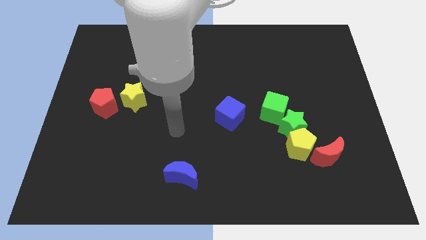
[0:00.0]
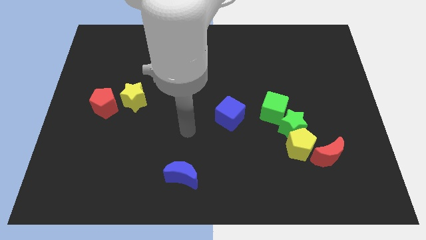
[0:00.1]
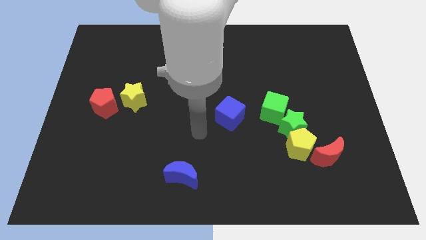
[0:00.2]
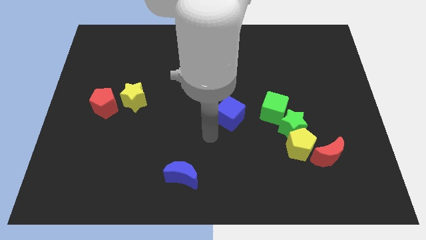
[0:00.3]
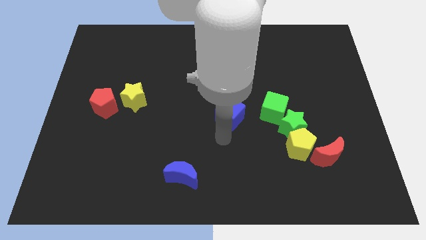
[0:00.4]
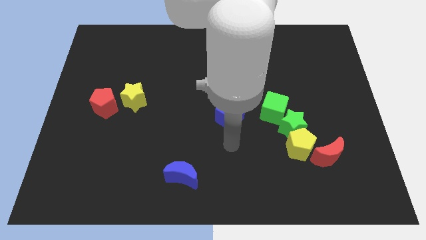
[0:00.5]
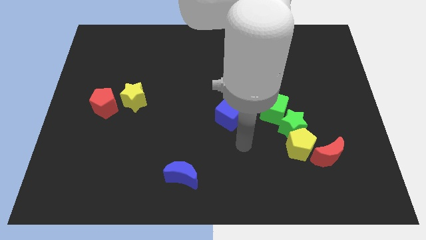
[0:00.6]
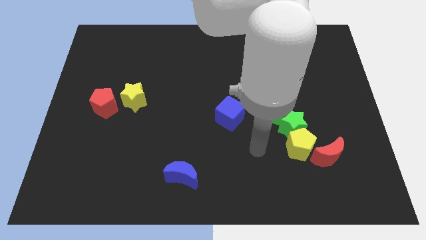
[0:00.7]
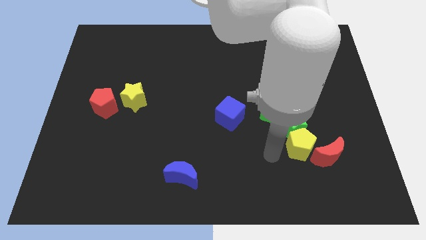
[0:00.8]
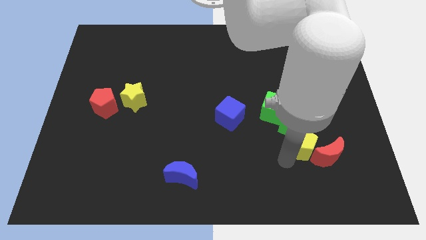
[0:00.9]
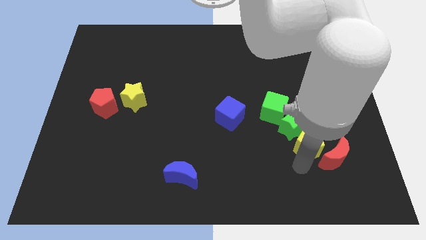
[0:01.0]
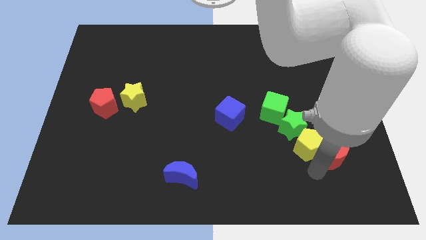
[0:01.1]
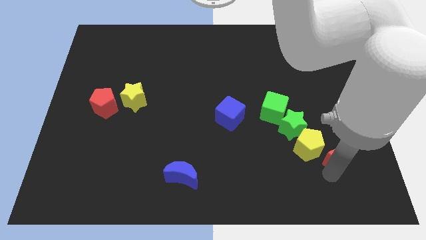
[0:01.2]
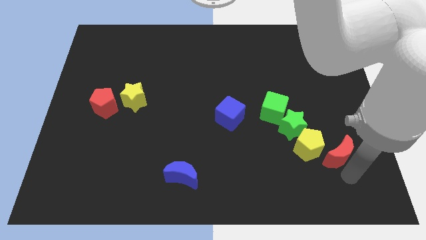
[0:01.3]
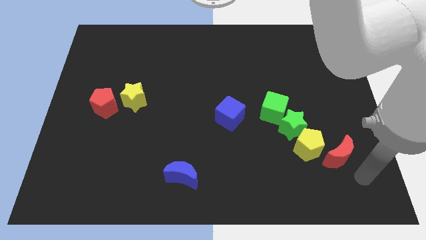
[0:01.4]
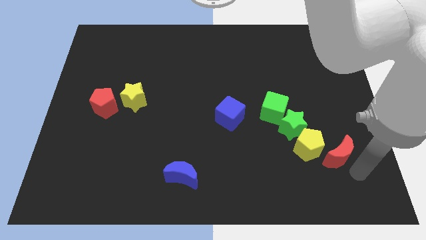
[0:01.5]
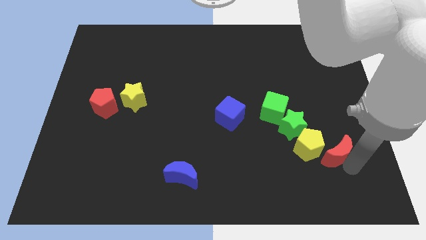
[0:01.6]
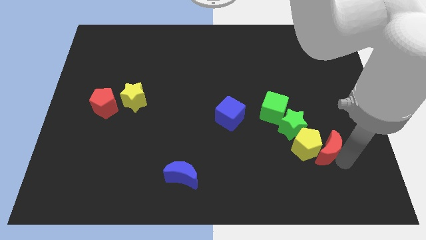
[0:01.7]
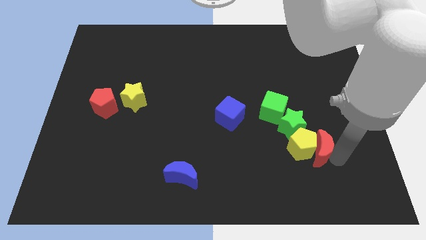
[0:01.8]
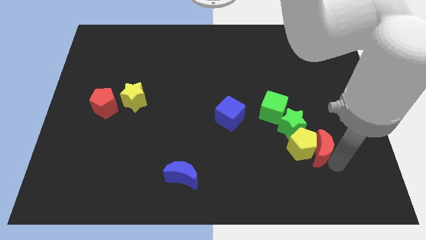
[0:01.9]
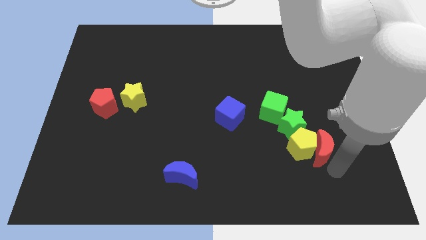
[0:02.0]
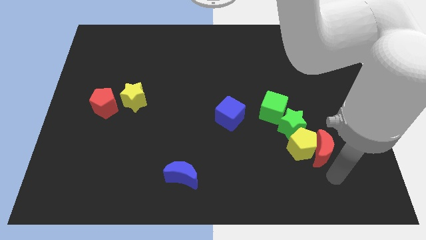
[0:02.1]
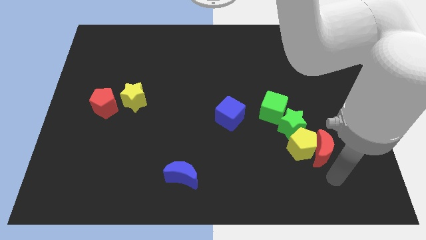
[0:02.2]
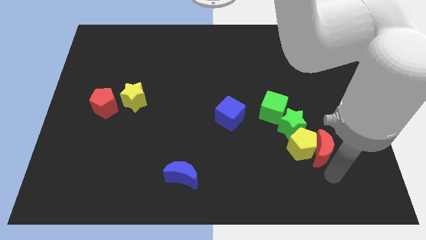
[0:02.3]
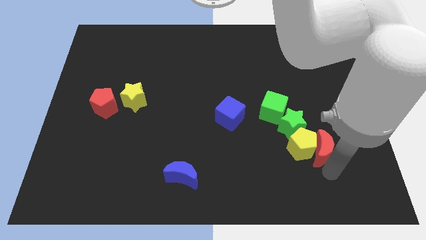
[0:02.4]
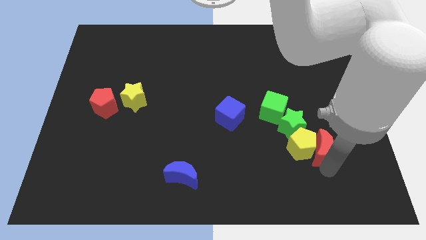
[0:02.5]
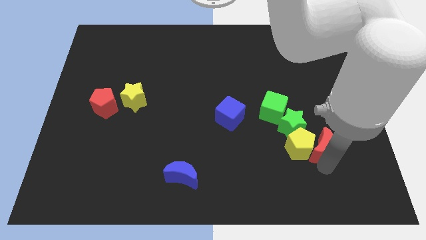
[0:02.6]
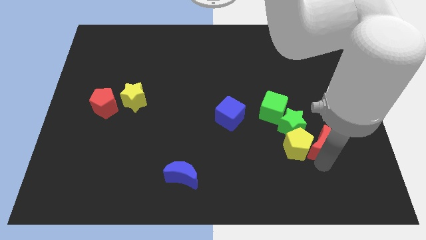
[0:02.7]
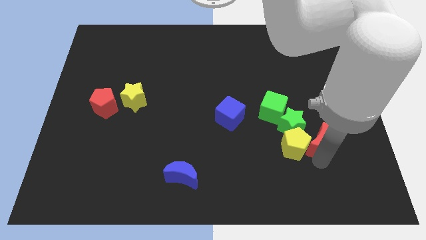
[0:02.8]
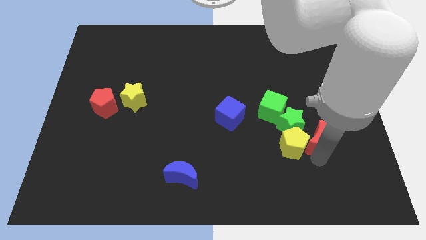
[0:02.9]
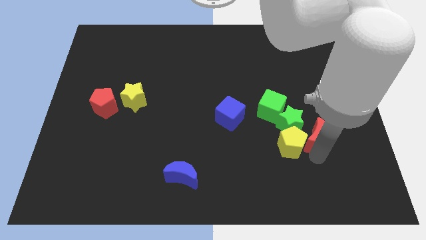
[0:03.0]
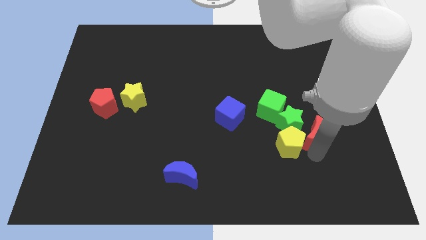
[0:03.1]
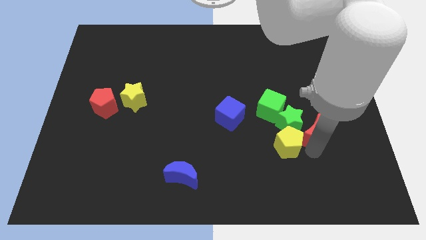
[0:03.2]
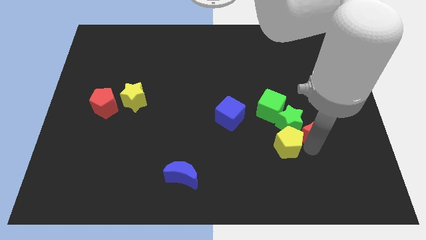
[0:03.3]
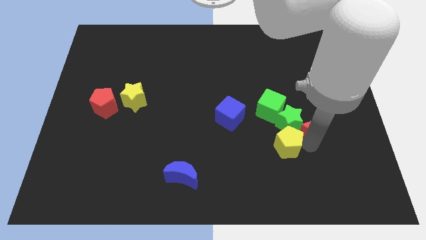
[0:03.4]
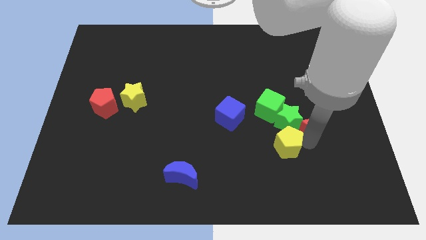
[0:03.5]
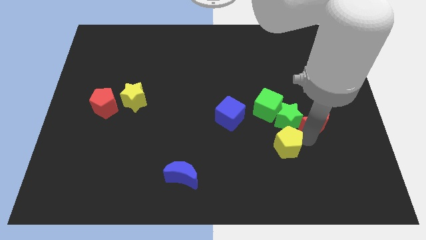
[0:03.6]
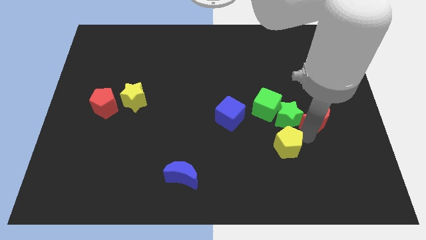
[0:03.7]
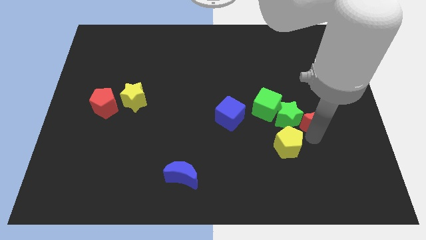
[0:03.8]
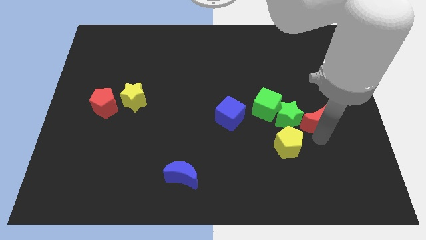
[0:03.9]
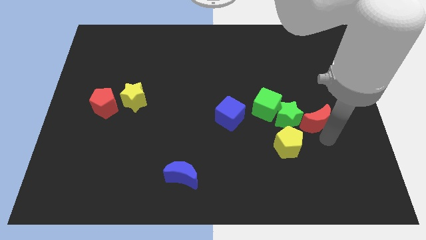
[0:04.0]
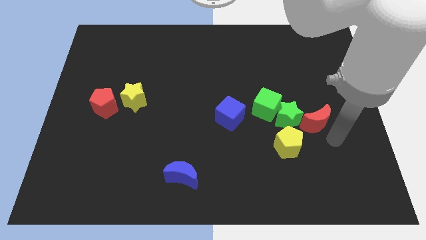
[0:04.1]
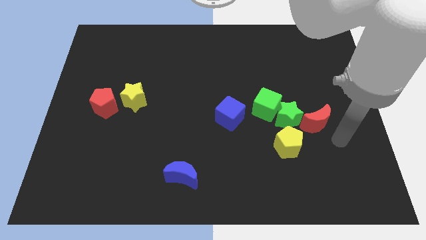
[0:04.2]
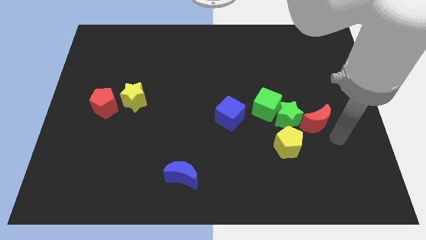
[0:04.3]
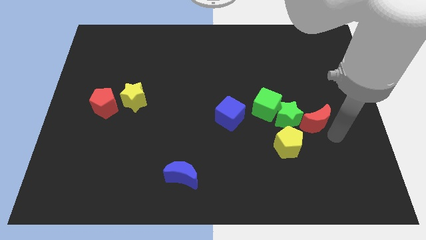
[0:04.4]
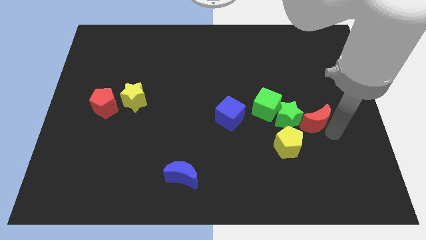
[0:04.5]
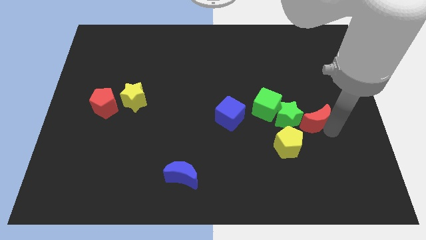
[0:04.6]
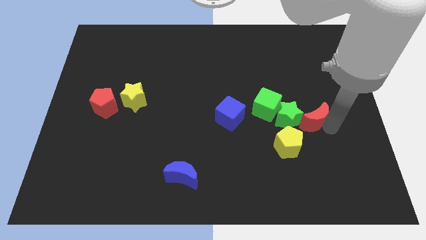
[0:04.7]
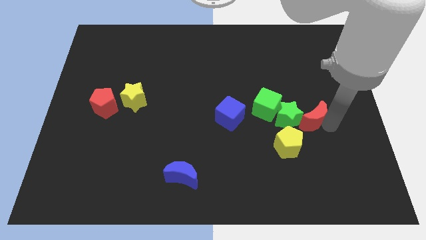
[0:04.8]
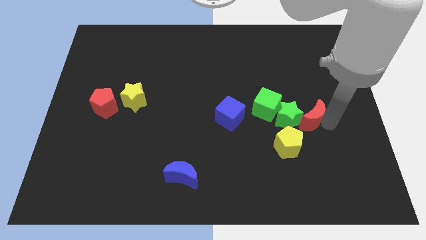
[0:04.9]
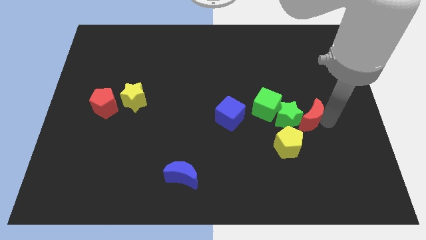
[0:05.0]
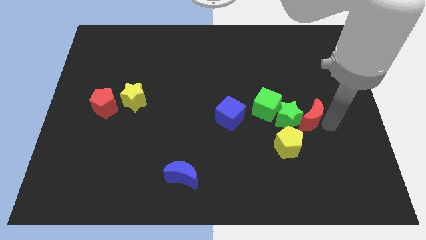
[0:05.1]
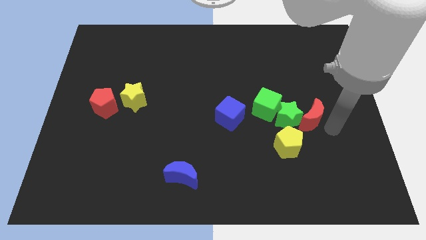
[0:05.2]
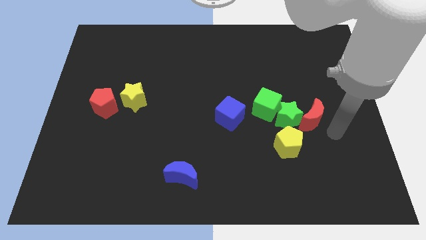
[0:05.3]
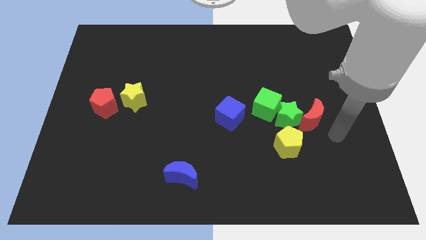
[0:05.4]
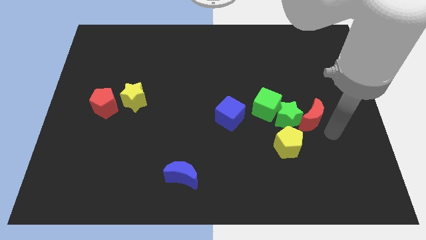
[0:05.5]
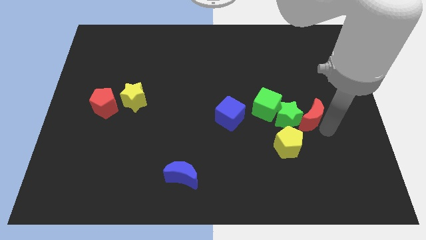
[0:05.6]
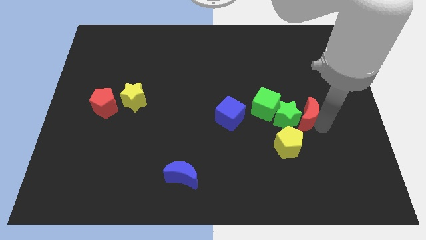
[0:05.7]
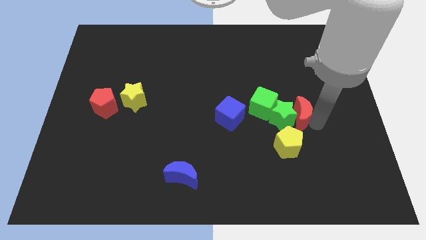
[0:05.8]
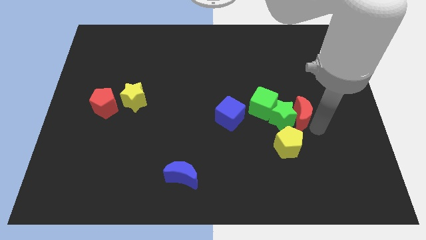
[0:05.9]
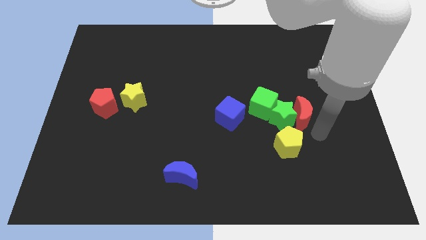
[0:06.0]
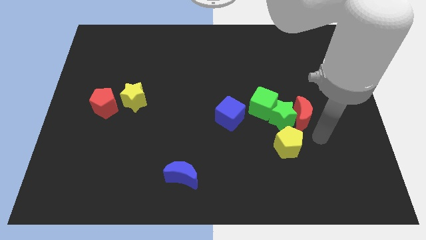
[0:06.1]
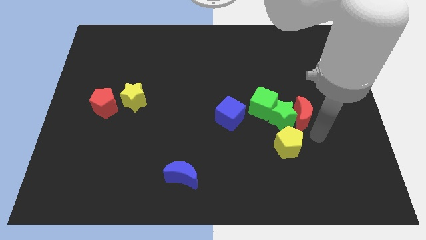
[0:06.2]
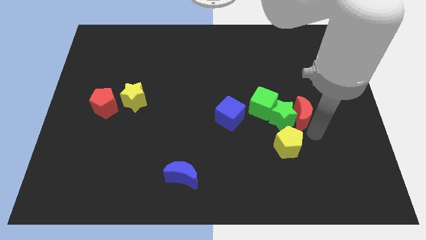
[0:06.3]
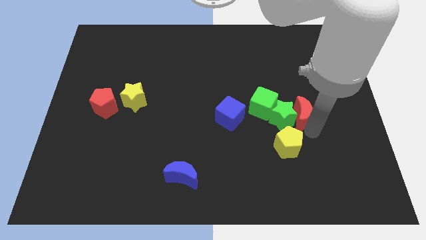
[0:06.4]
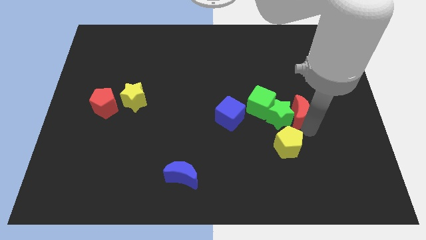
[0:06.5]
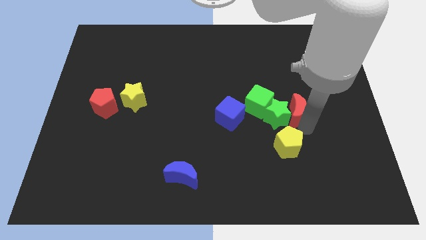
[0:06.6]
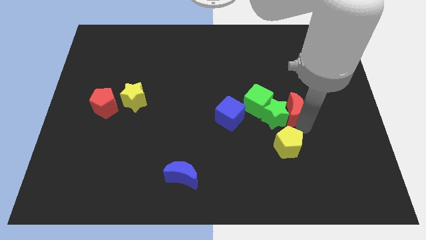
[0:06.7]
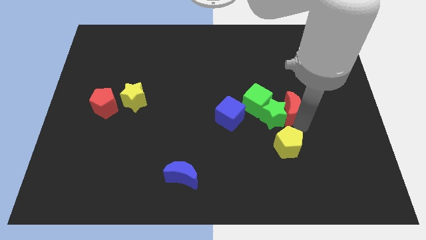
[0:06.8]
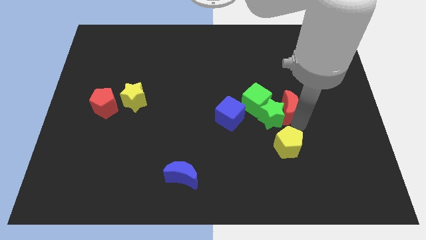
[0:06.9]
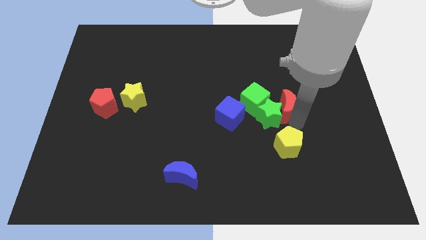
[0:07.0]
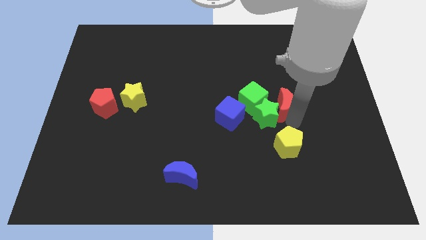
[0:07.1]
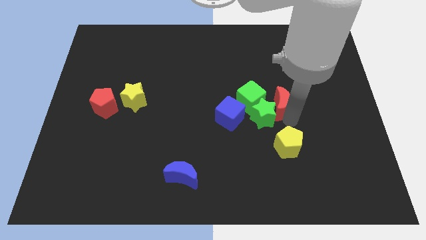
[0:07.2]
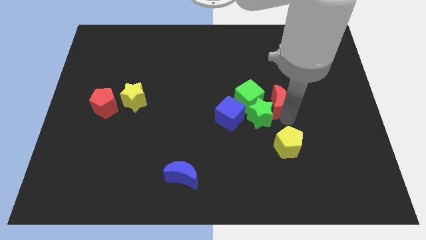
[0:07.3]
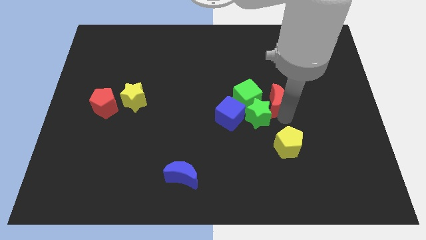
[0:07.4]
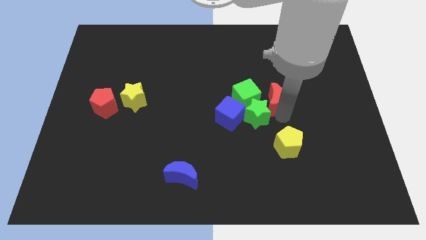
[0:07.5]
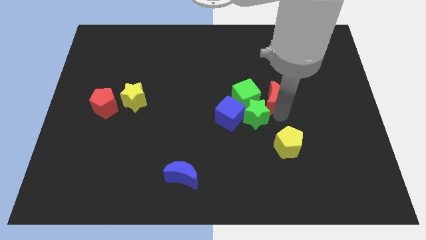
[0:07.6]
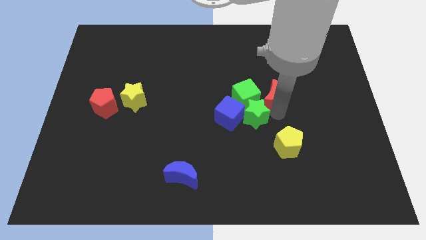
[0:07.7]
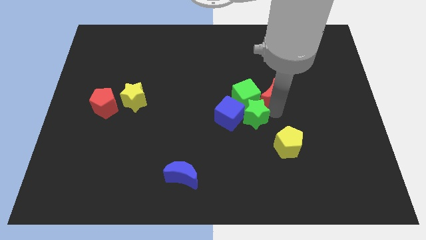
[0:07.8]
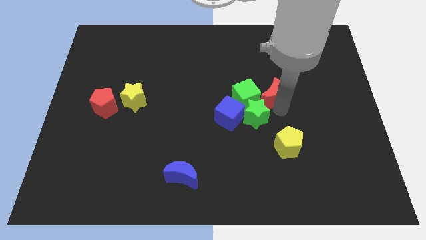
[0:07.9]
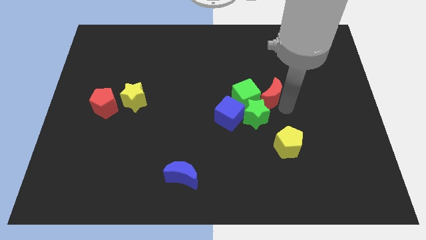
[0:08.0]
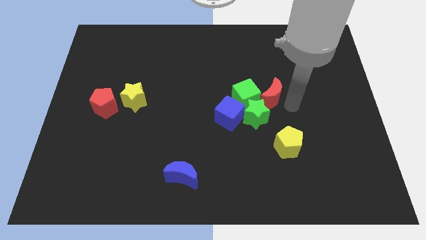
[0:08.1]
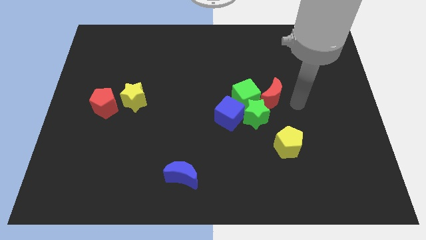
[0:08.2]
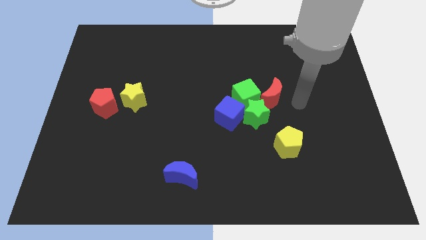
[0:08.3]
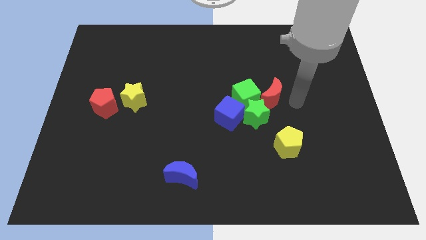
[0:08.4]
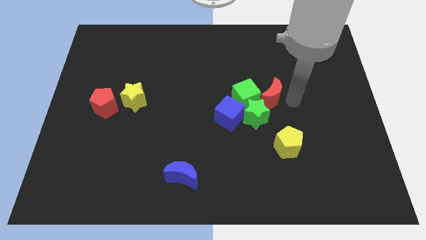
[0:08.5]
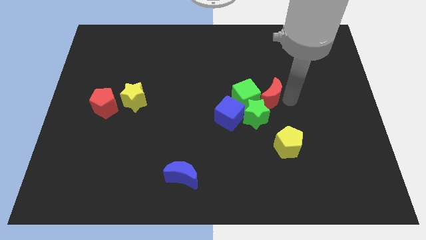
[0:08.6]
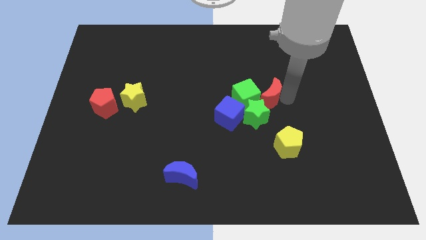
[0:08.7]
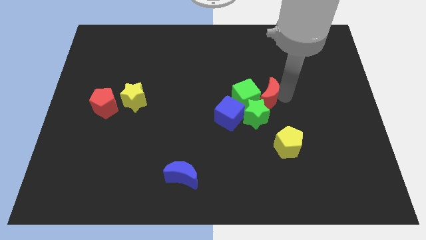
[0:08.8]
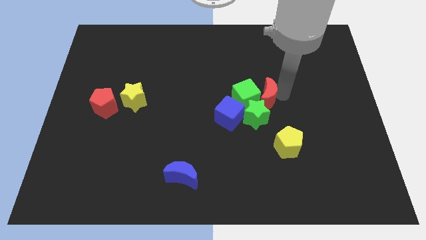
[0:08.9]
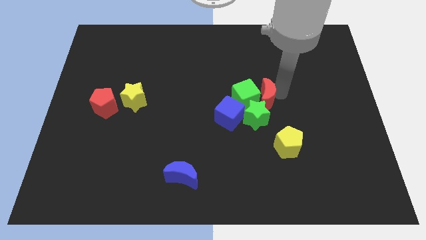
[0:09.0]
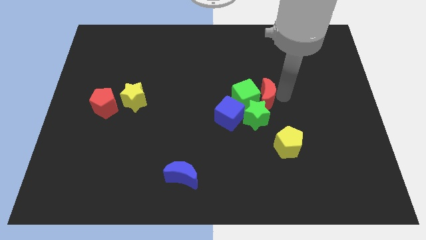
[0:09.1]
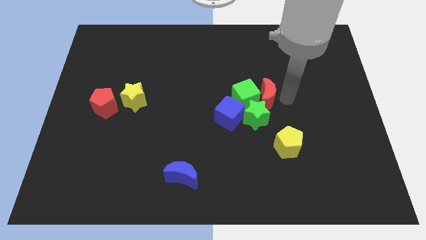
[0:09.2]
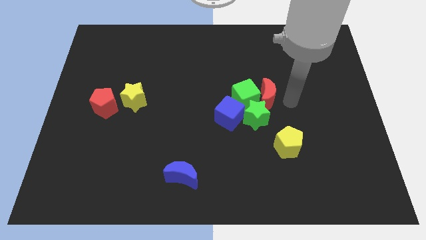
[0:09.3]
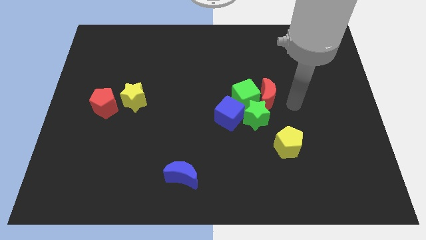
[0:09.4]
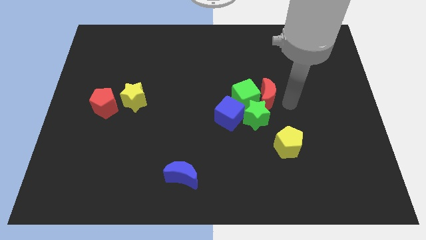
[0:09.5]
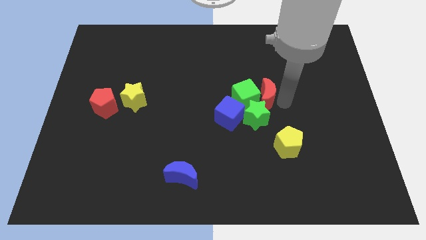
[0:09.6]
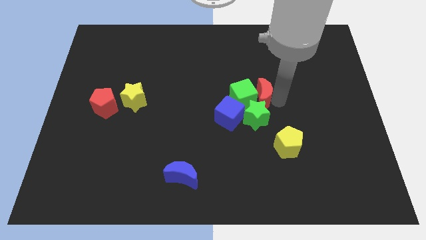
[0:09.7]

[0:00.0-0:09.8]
slide the red moon to the middle of the board
